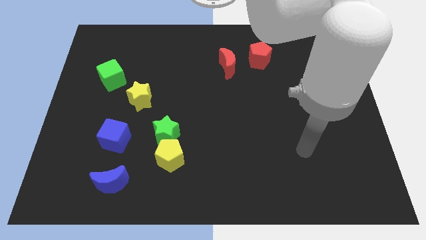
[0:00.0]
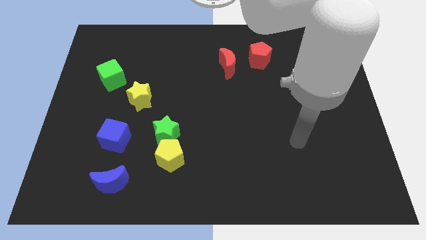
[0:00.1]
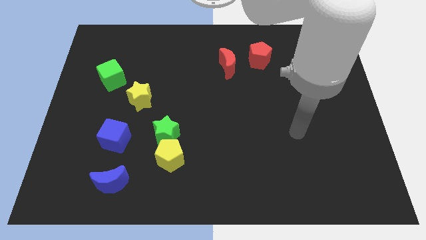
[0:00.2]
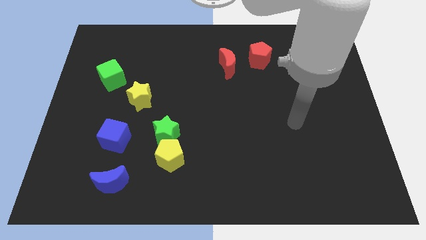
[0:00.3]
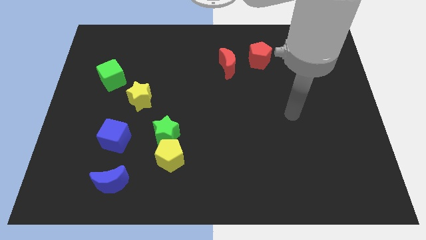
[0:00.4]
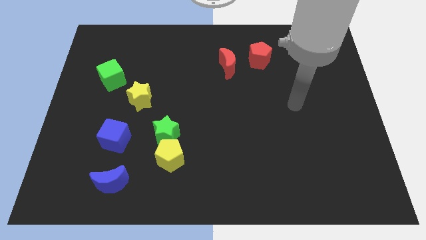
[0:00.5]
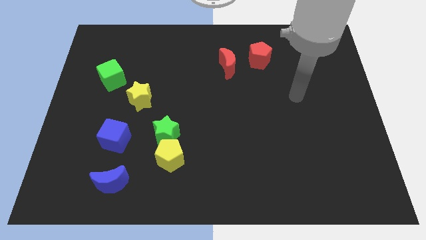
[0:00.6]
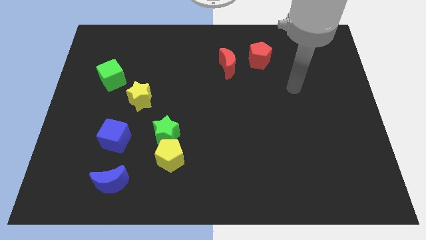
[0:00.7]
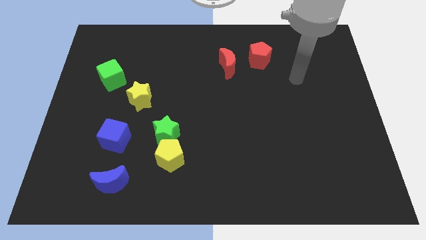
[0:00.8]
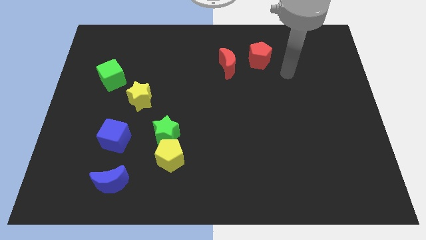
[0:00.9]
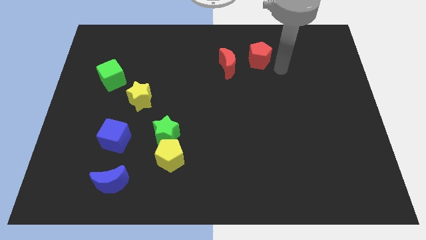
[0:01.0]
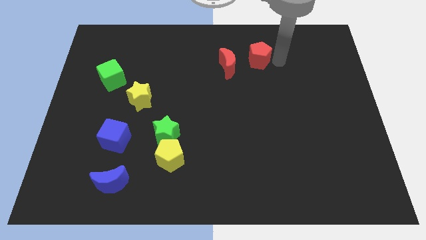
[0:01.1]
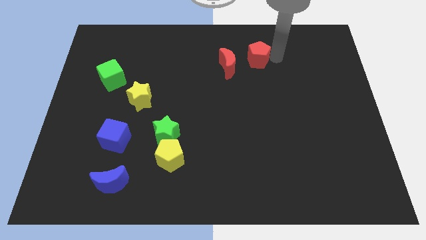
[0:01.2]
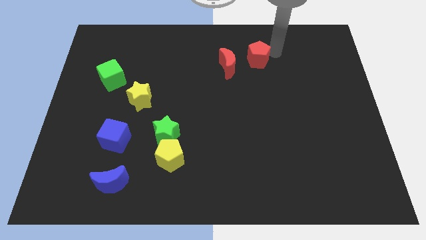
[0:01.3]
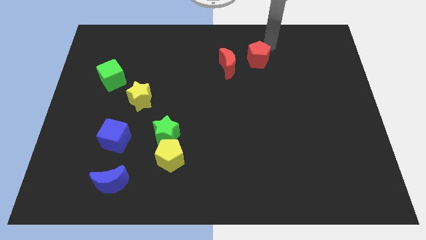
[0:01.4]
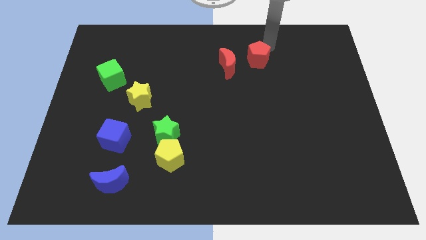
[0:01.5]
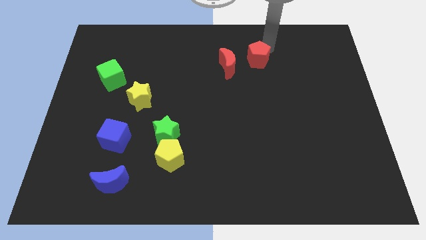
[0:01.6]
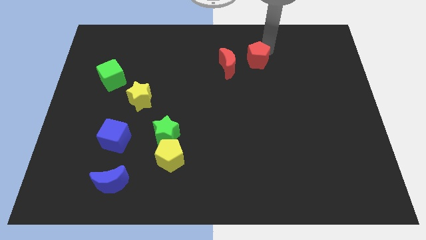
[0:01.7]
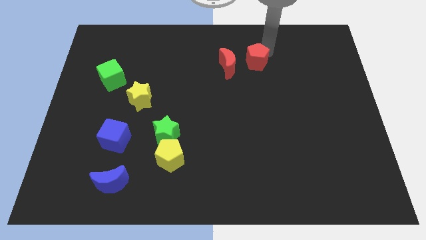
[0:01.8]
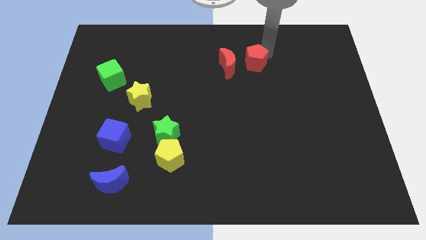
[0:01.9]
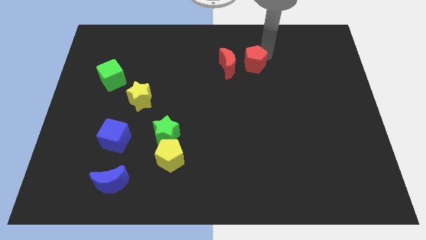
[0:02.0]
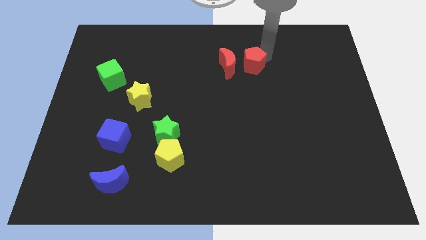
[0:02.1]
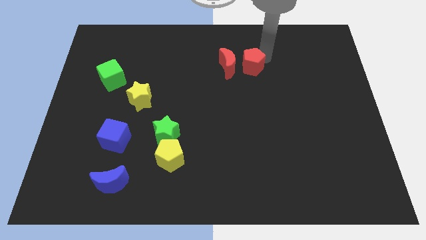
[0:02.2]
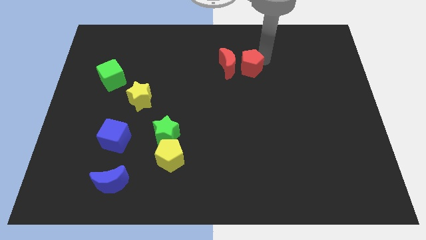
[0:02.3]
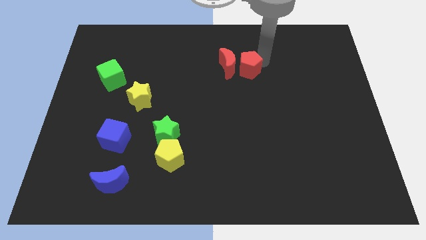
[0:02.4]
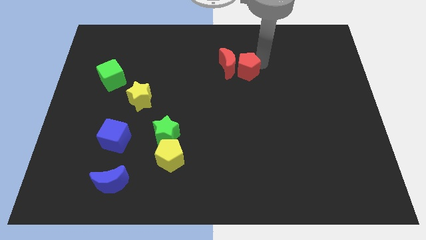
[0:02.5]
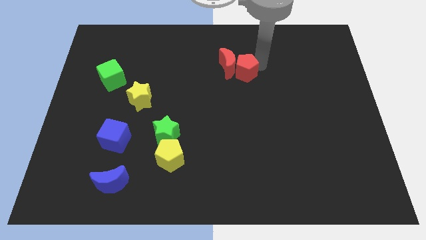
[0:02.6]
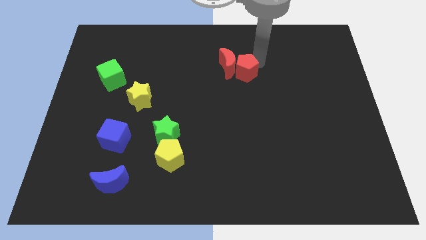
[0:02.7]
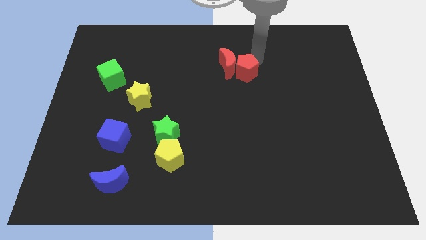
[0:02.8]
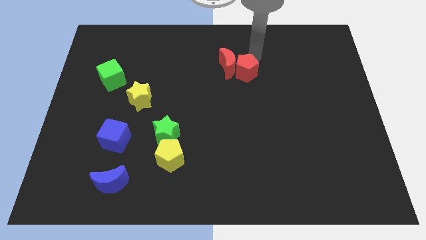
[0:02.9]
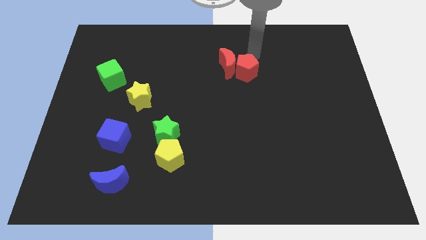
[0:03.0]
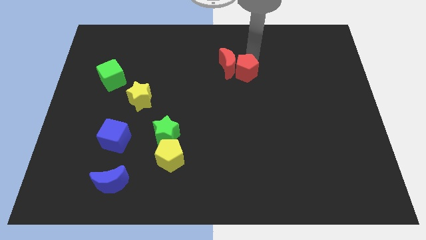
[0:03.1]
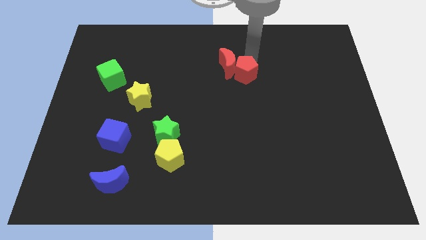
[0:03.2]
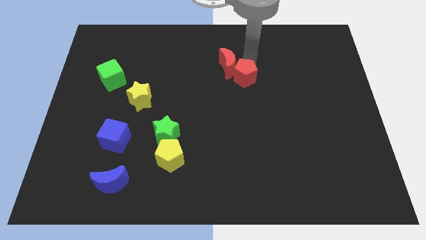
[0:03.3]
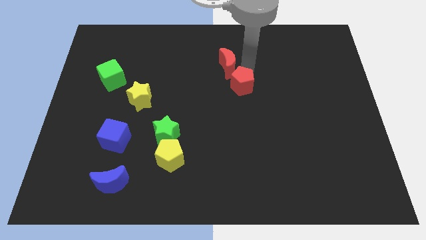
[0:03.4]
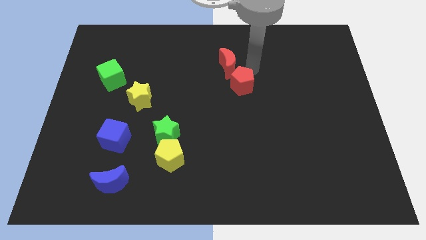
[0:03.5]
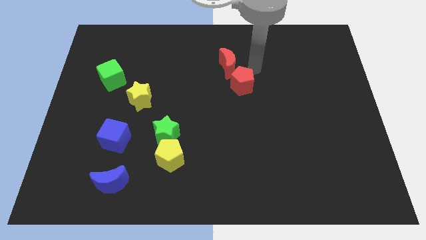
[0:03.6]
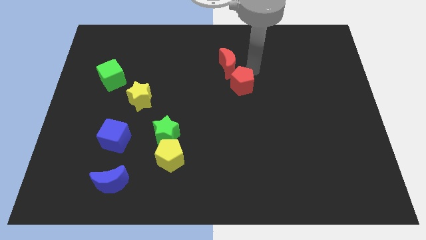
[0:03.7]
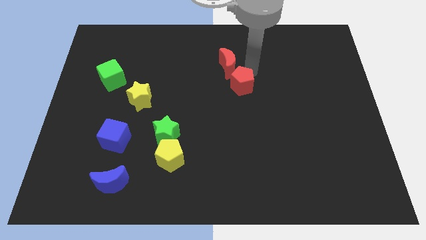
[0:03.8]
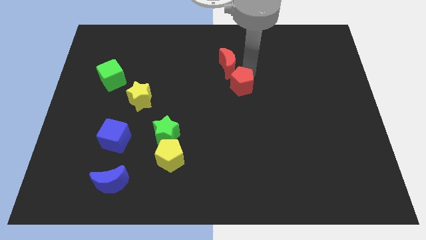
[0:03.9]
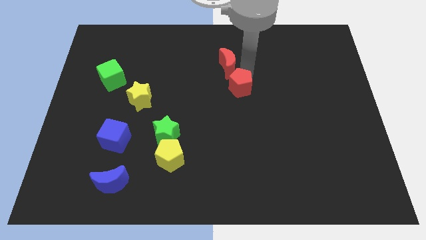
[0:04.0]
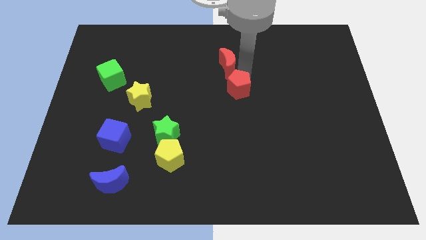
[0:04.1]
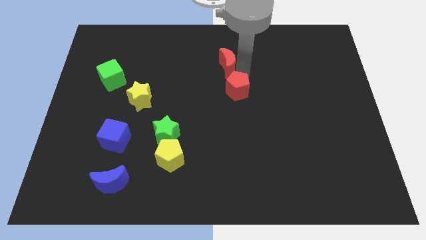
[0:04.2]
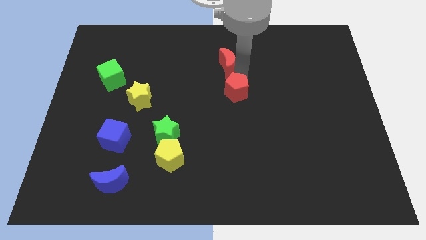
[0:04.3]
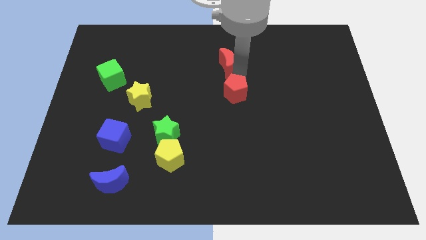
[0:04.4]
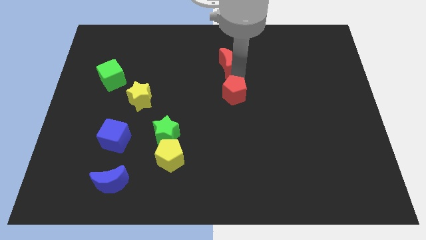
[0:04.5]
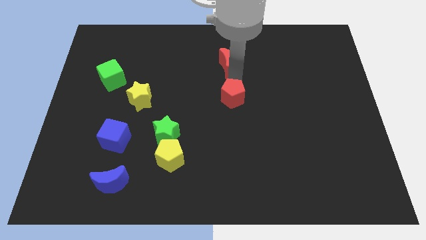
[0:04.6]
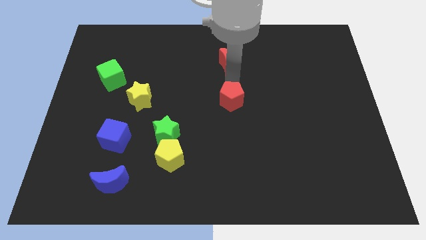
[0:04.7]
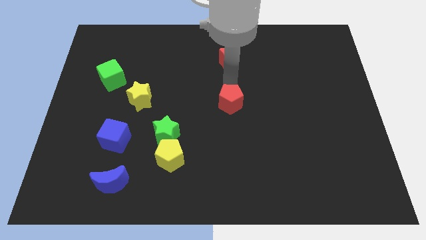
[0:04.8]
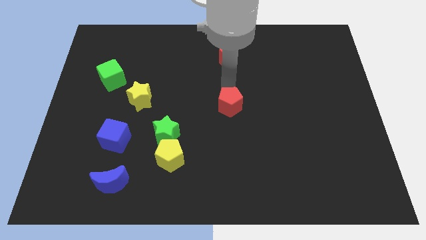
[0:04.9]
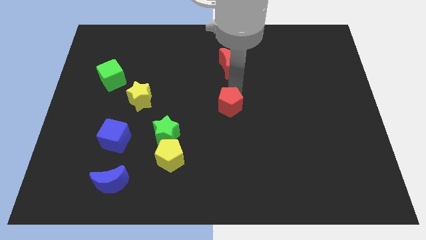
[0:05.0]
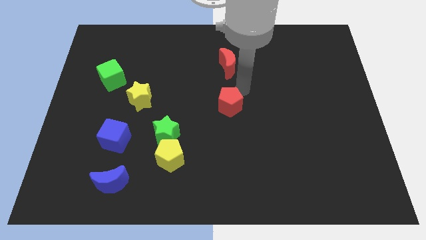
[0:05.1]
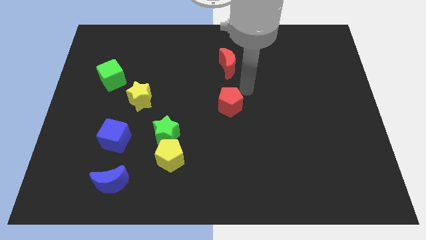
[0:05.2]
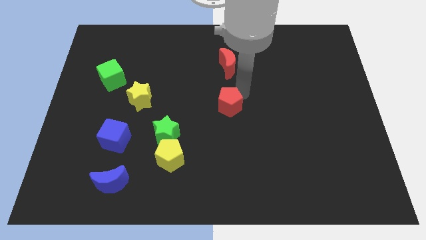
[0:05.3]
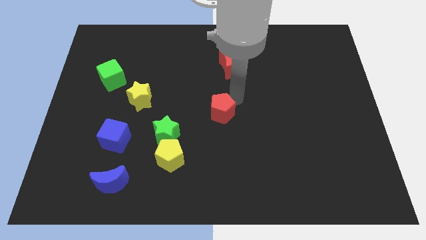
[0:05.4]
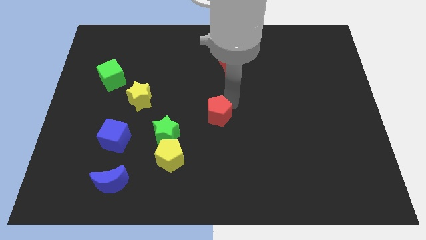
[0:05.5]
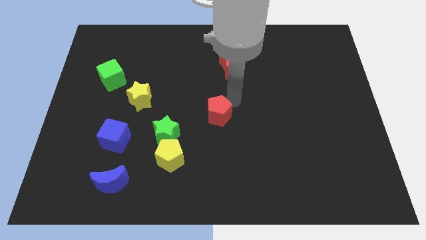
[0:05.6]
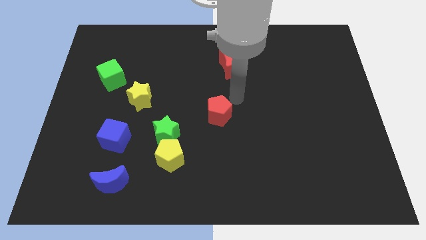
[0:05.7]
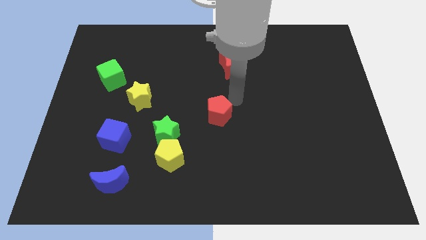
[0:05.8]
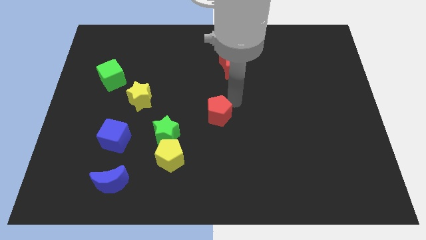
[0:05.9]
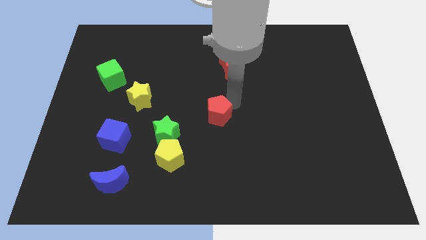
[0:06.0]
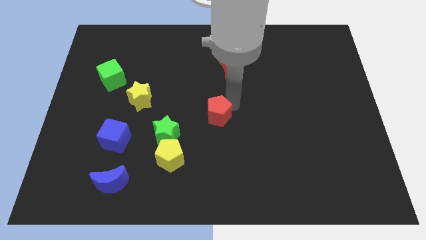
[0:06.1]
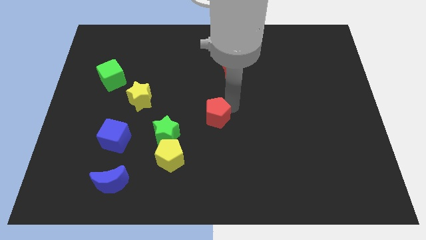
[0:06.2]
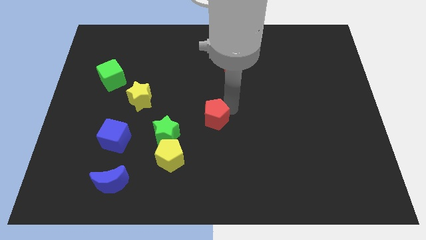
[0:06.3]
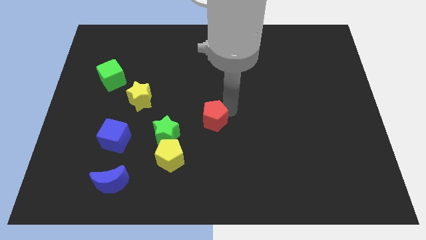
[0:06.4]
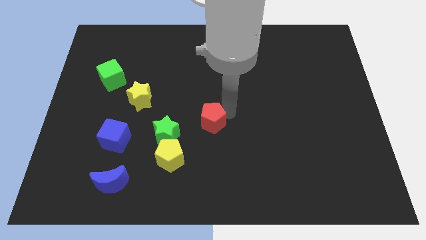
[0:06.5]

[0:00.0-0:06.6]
slide the red pentagon to the top right side of the yellow pentagon

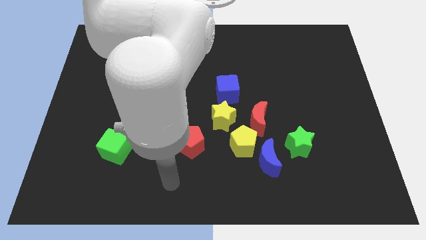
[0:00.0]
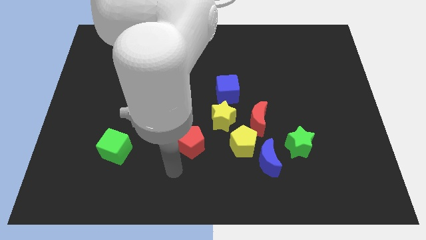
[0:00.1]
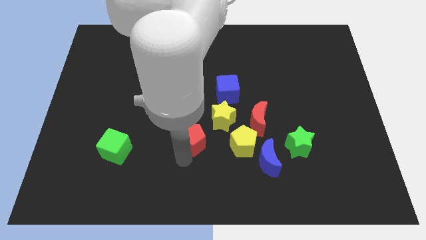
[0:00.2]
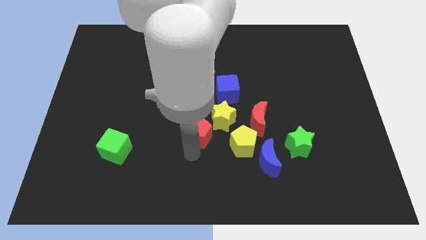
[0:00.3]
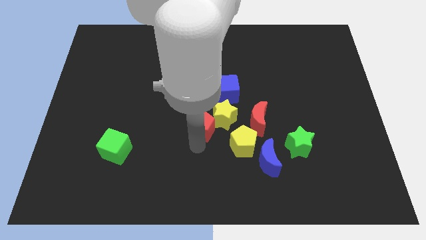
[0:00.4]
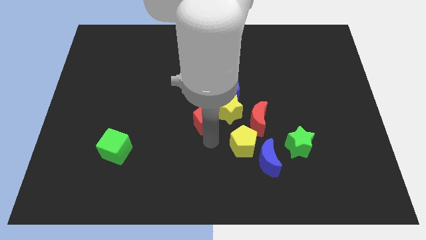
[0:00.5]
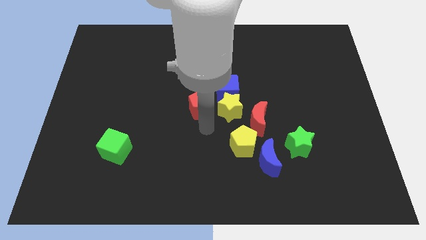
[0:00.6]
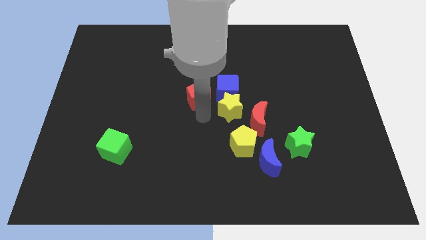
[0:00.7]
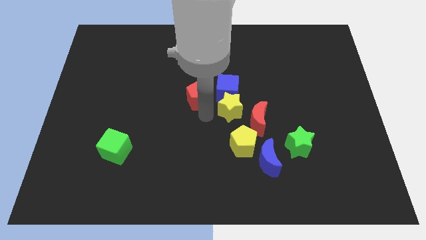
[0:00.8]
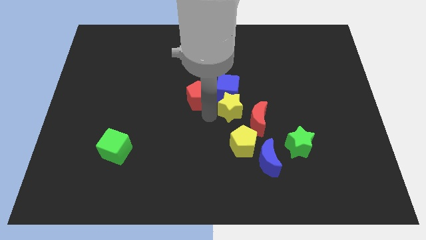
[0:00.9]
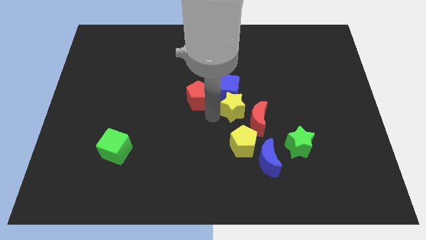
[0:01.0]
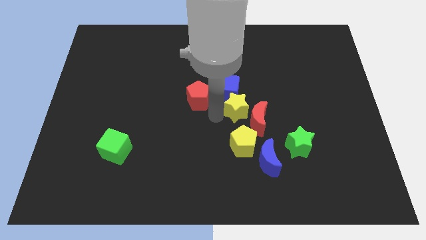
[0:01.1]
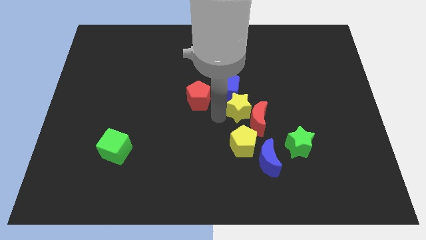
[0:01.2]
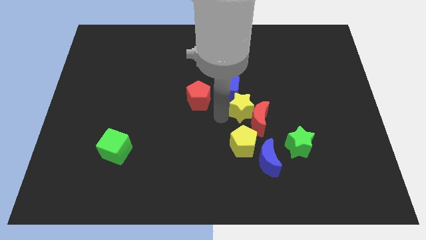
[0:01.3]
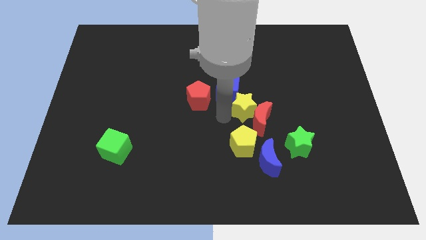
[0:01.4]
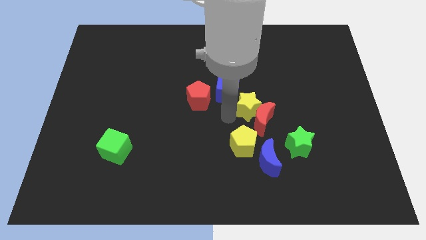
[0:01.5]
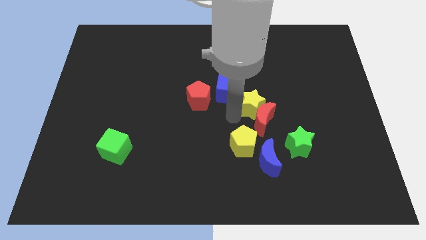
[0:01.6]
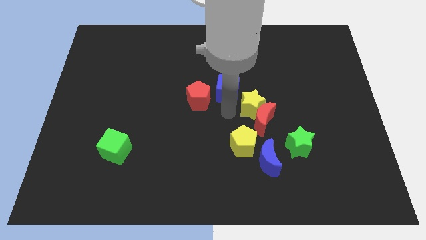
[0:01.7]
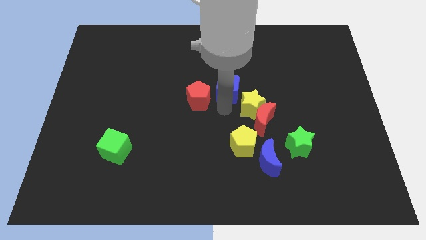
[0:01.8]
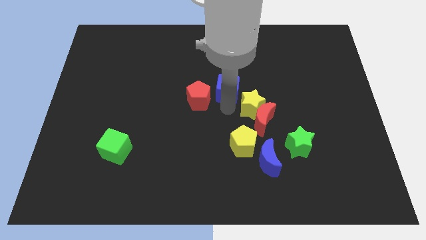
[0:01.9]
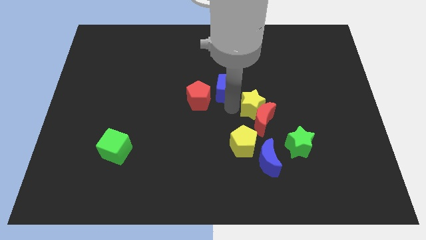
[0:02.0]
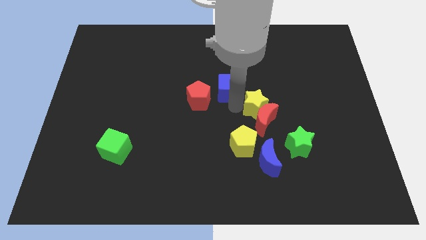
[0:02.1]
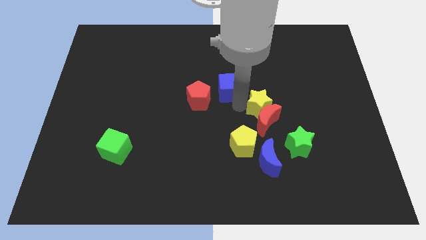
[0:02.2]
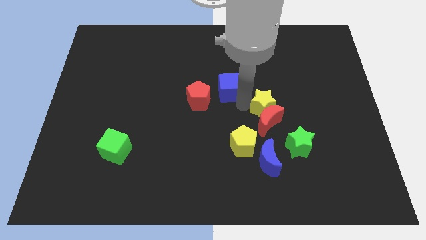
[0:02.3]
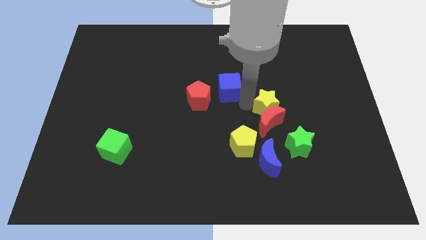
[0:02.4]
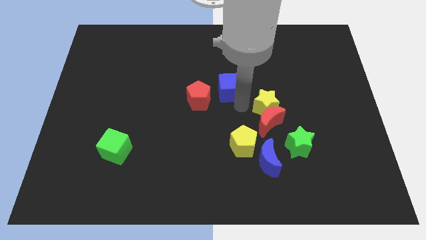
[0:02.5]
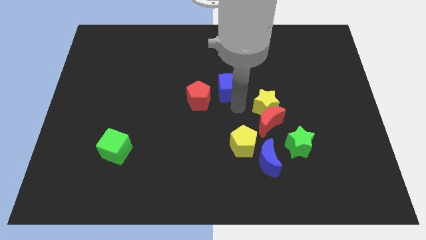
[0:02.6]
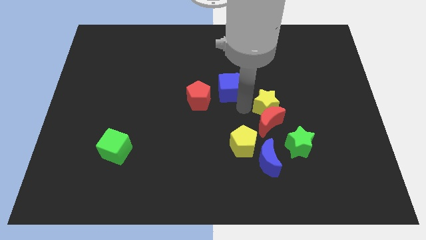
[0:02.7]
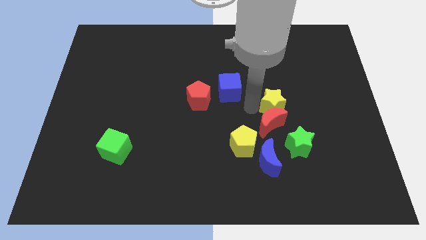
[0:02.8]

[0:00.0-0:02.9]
push the yellow star to the top side of the green star
